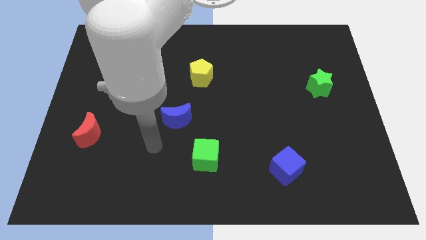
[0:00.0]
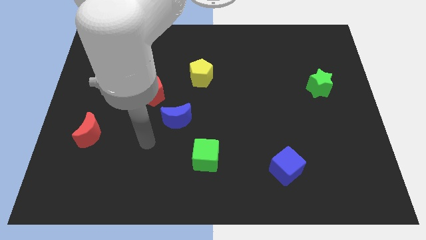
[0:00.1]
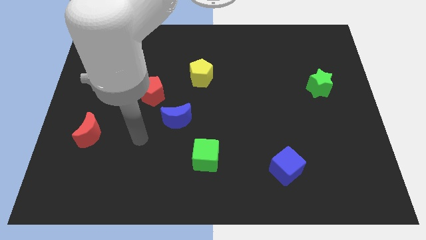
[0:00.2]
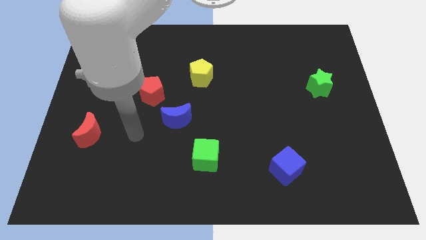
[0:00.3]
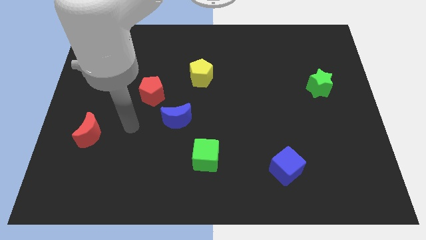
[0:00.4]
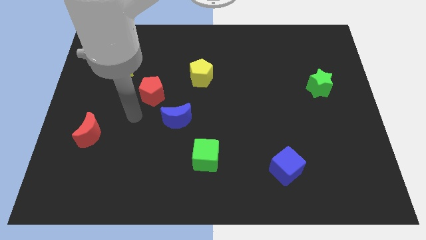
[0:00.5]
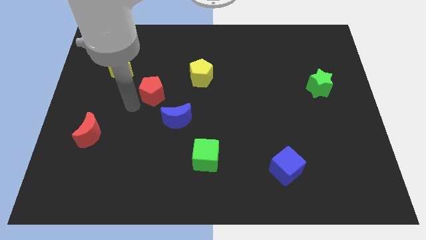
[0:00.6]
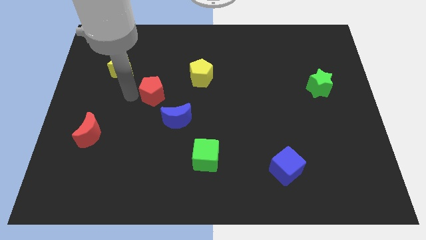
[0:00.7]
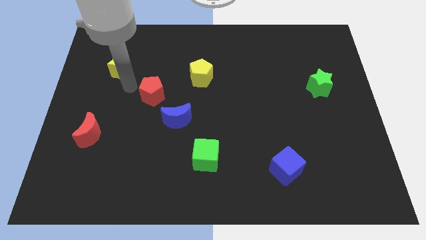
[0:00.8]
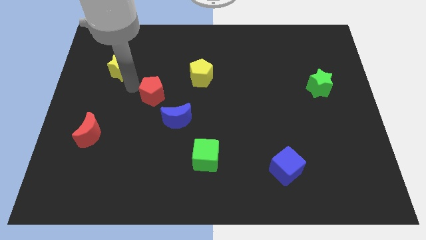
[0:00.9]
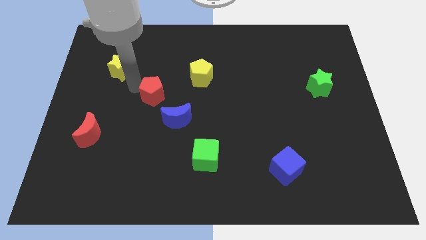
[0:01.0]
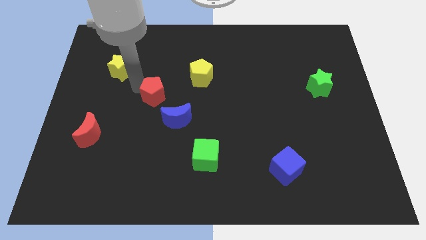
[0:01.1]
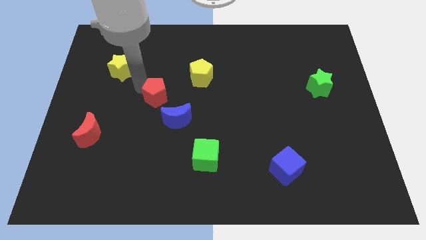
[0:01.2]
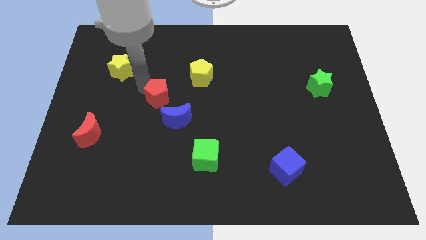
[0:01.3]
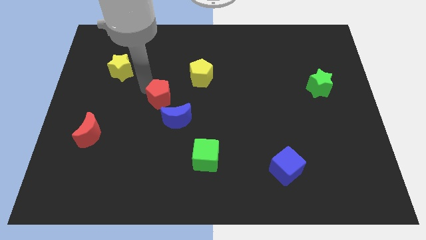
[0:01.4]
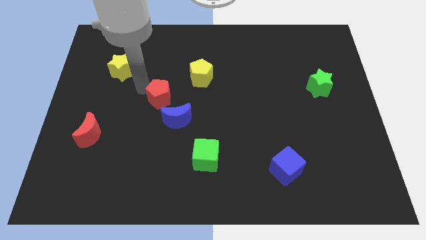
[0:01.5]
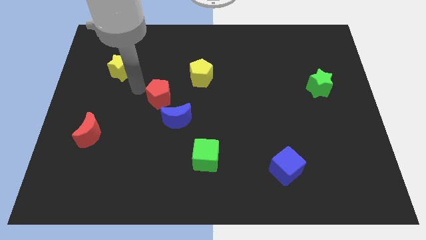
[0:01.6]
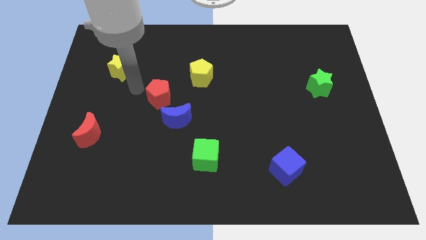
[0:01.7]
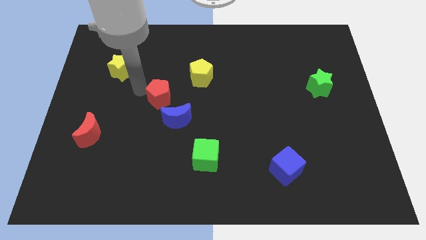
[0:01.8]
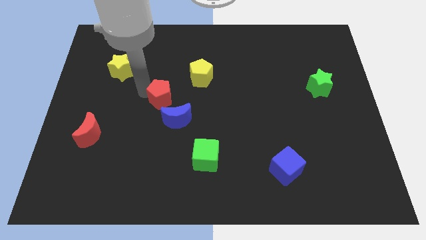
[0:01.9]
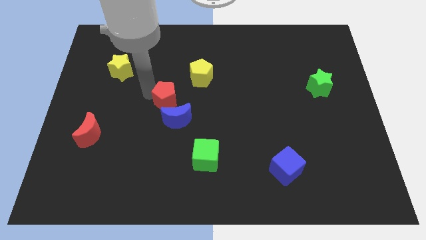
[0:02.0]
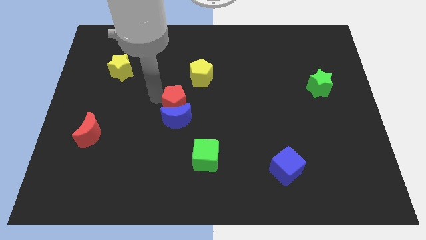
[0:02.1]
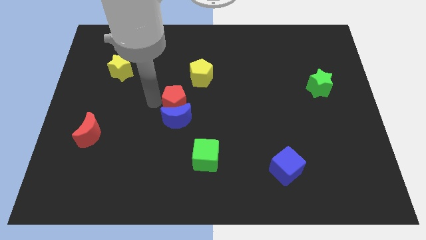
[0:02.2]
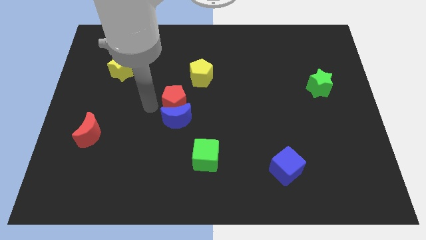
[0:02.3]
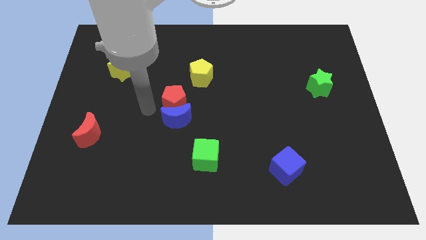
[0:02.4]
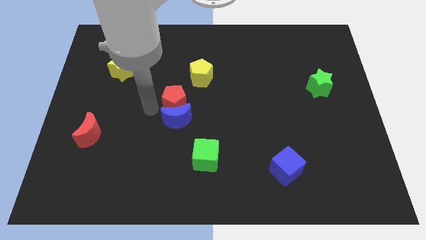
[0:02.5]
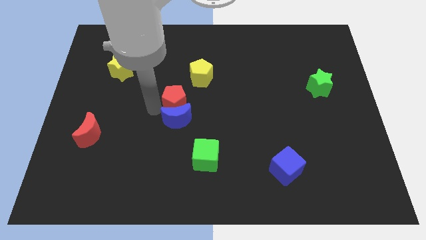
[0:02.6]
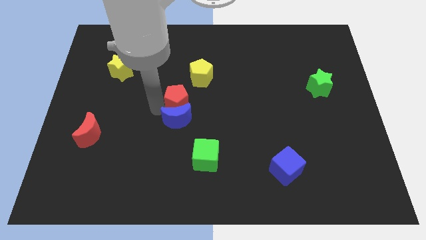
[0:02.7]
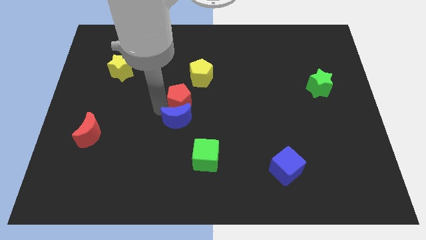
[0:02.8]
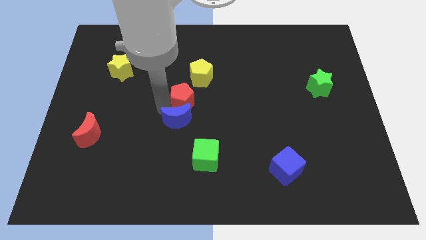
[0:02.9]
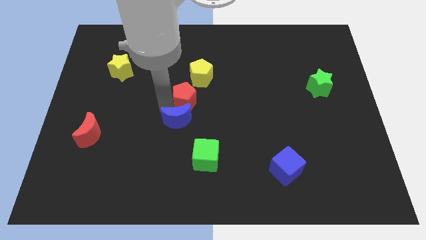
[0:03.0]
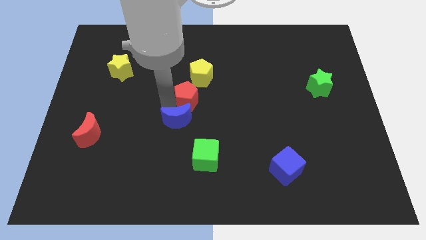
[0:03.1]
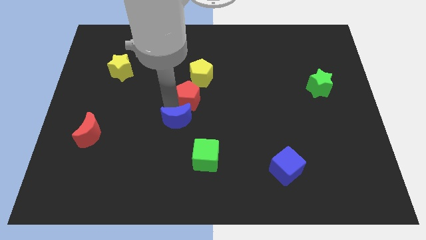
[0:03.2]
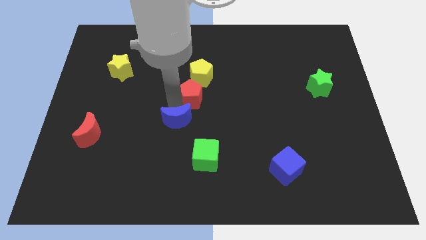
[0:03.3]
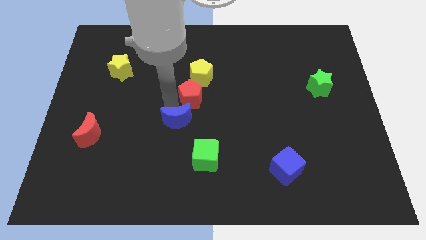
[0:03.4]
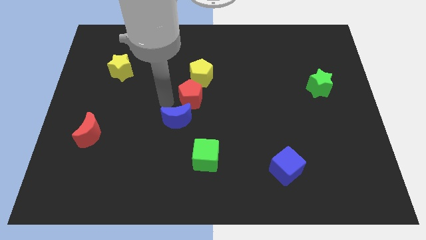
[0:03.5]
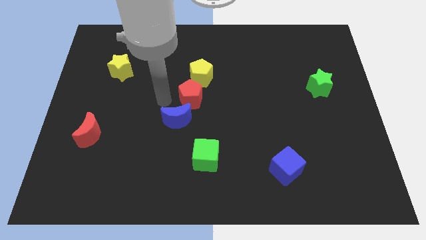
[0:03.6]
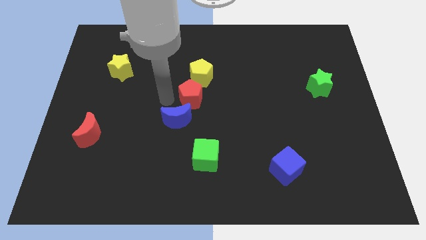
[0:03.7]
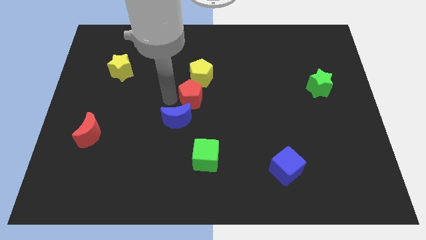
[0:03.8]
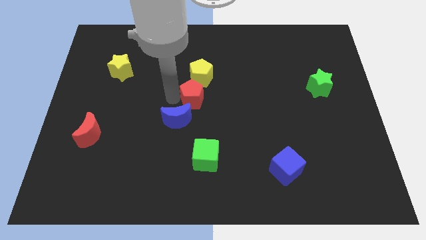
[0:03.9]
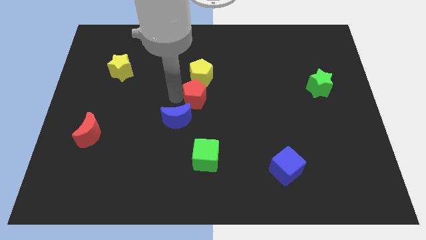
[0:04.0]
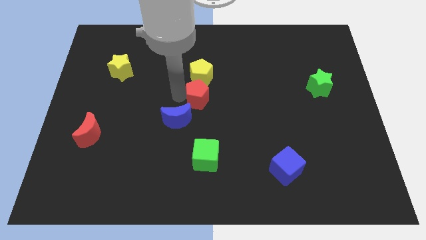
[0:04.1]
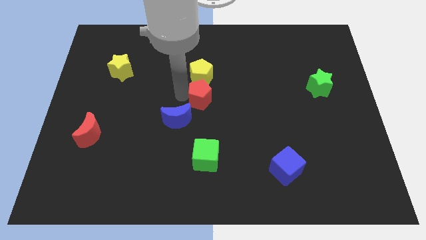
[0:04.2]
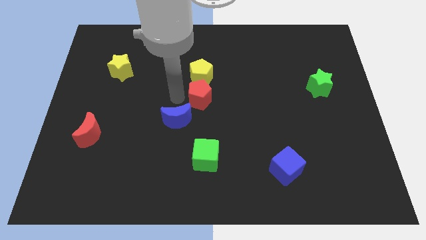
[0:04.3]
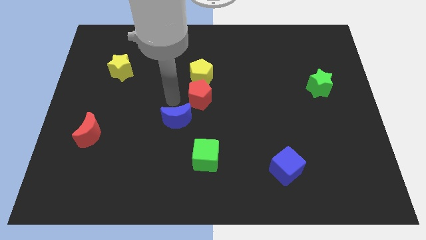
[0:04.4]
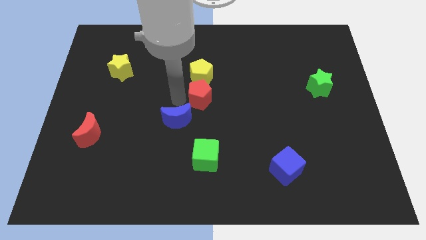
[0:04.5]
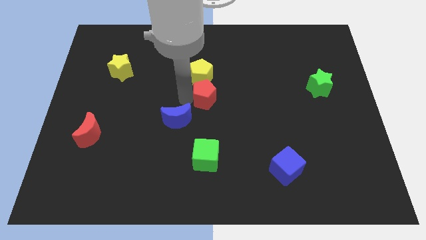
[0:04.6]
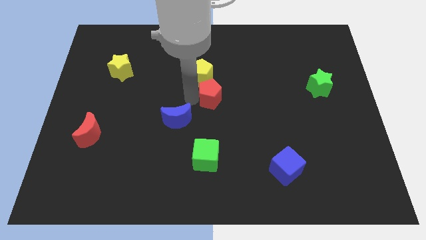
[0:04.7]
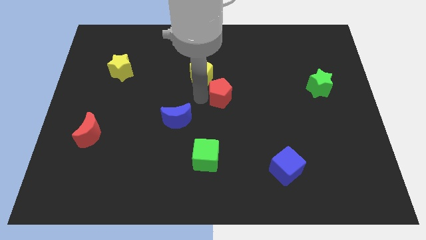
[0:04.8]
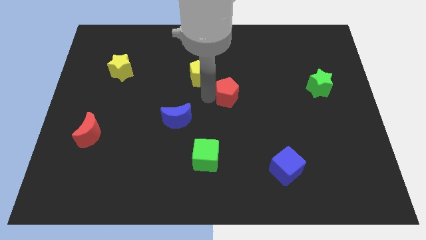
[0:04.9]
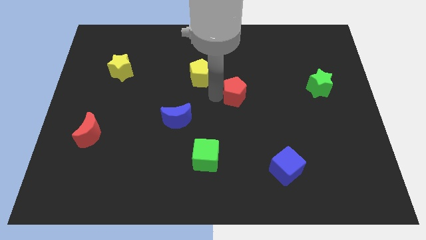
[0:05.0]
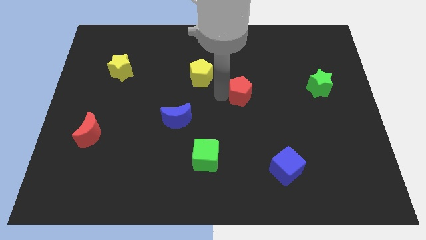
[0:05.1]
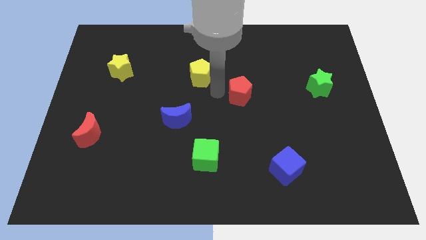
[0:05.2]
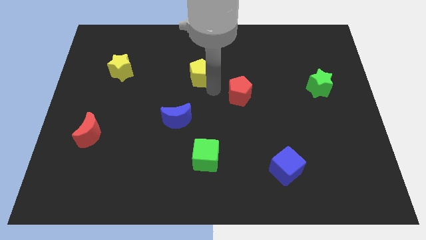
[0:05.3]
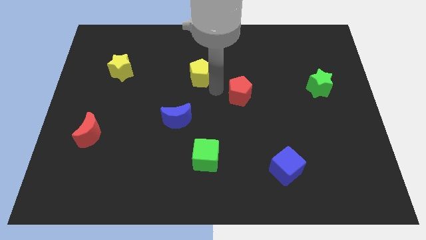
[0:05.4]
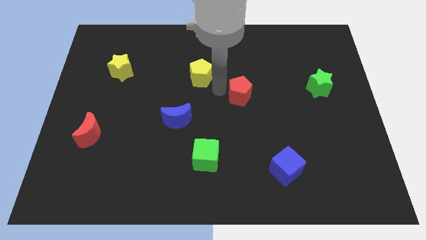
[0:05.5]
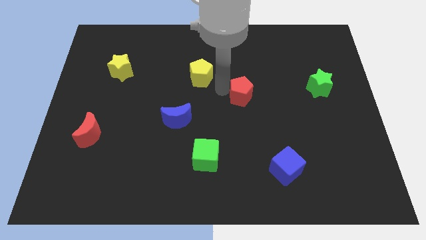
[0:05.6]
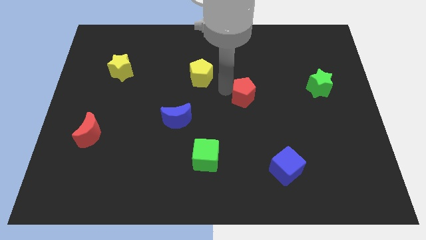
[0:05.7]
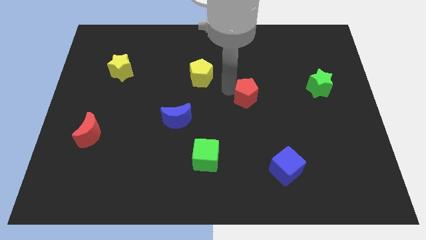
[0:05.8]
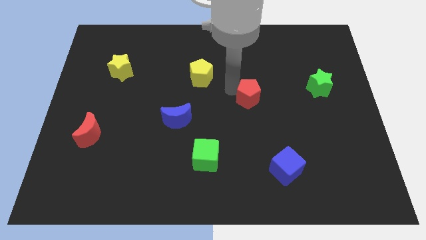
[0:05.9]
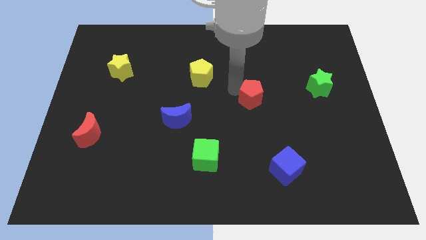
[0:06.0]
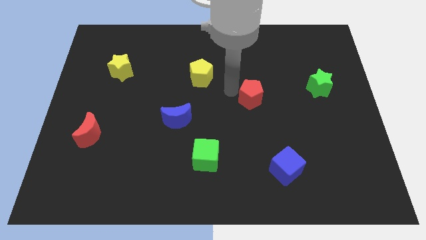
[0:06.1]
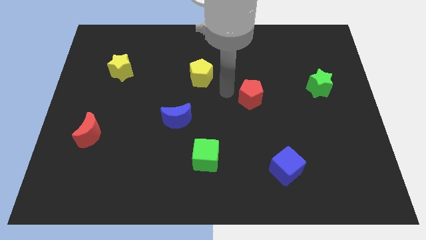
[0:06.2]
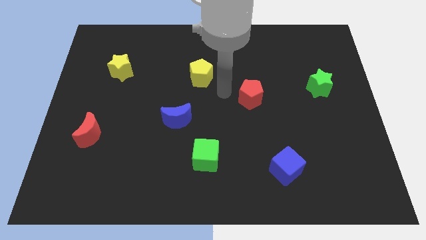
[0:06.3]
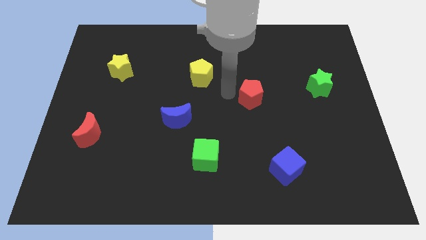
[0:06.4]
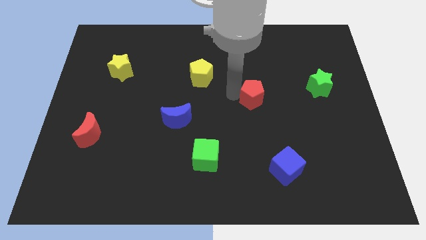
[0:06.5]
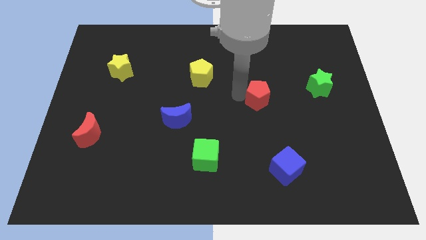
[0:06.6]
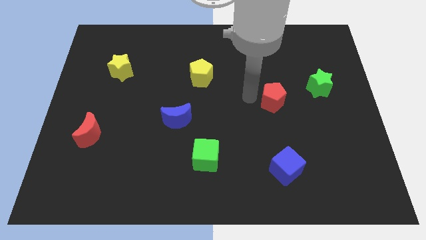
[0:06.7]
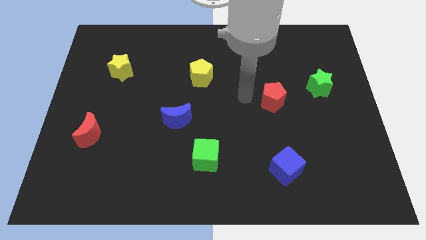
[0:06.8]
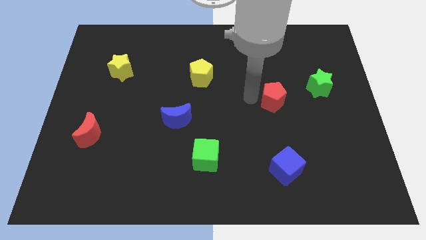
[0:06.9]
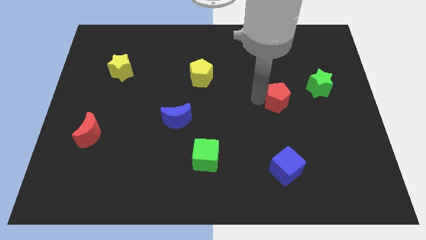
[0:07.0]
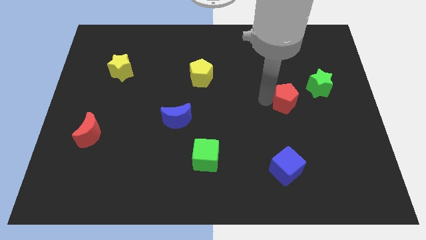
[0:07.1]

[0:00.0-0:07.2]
push the red pentagon to the bottom left side of the green star
